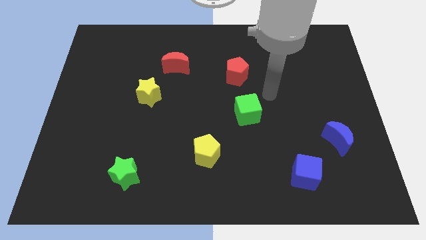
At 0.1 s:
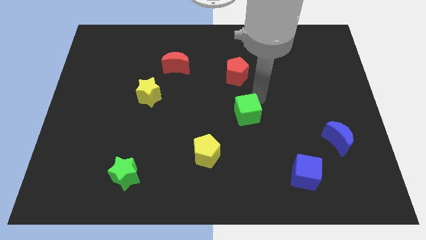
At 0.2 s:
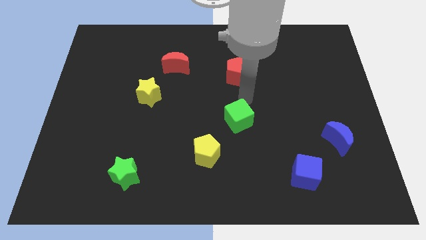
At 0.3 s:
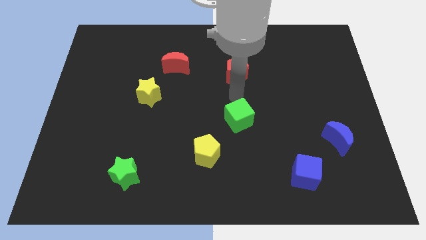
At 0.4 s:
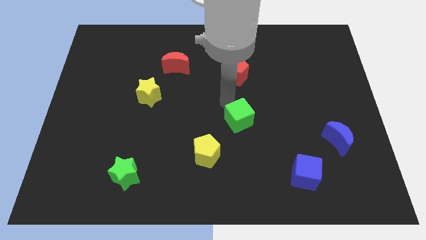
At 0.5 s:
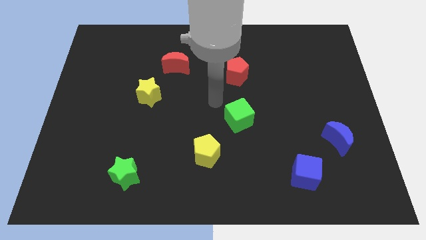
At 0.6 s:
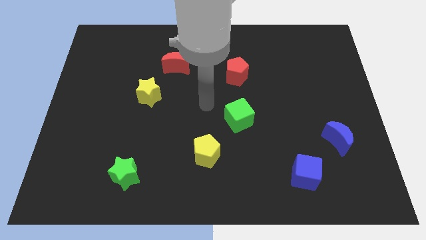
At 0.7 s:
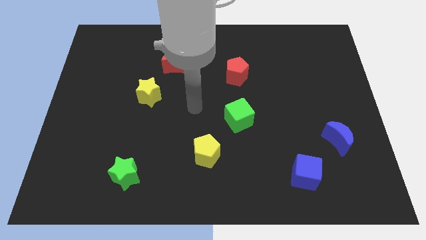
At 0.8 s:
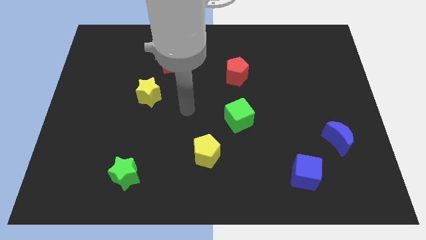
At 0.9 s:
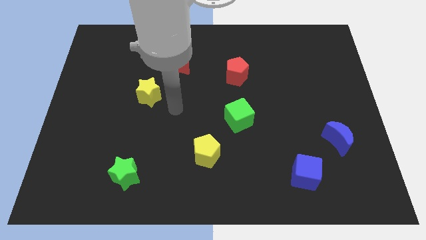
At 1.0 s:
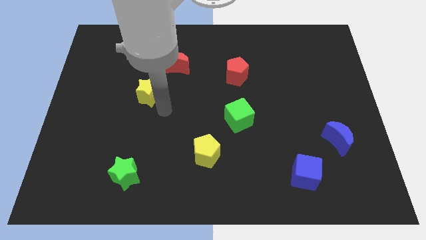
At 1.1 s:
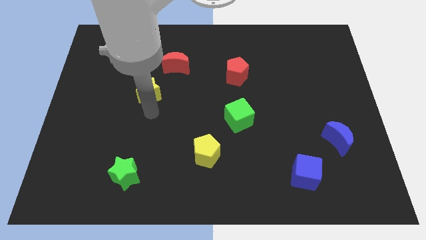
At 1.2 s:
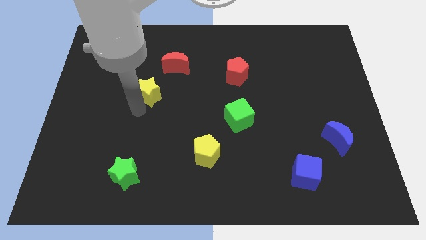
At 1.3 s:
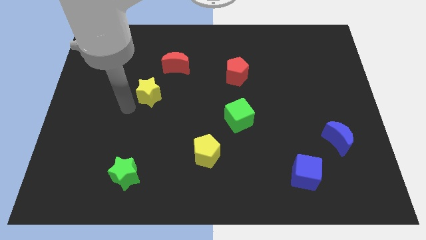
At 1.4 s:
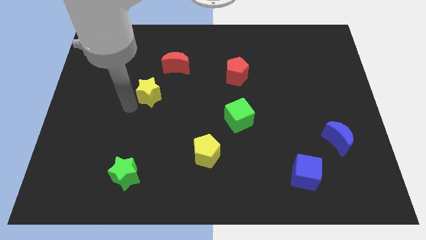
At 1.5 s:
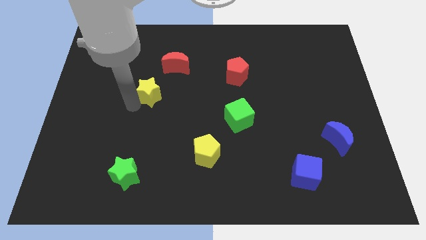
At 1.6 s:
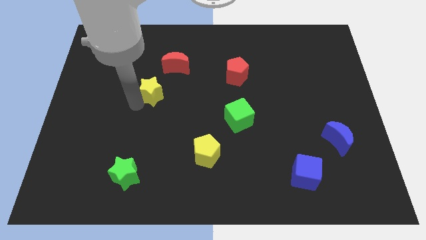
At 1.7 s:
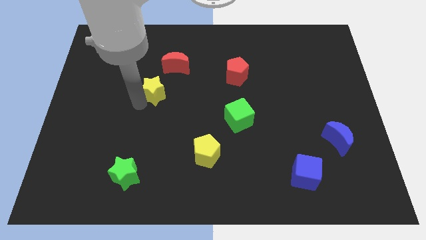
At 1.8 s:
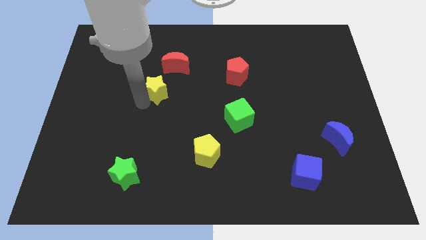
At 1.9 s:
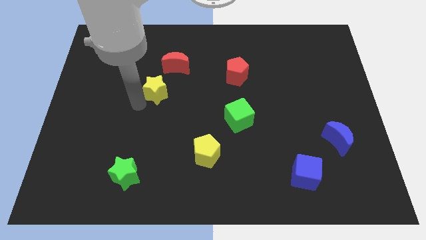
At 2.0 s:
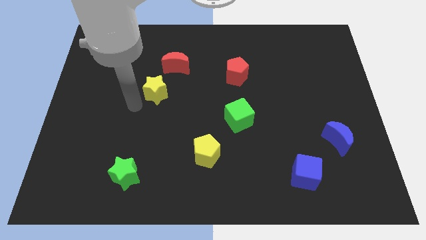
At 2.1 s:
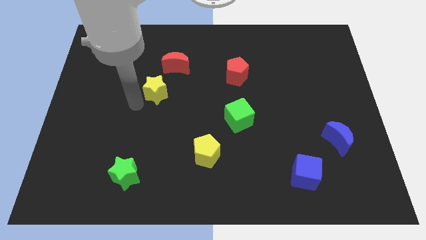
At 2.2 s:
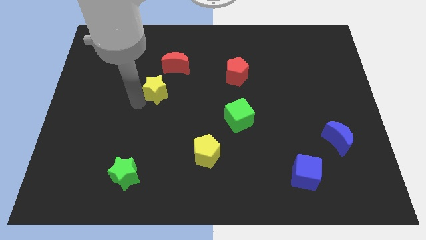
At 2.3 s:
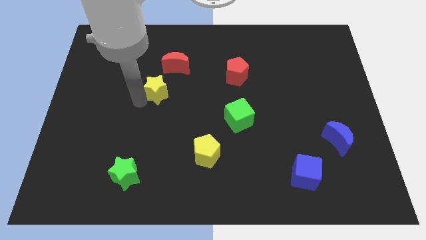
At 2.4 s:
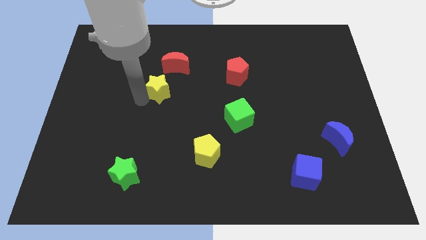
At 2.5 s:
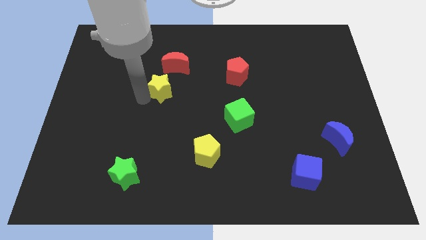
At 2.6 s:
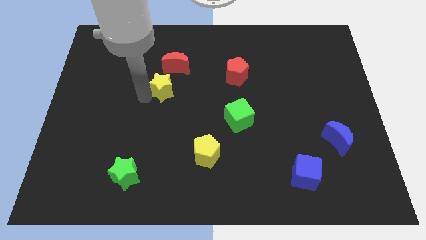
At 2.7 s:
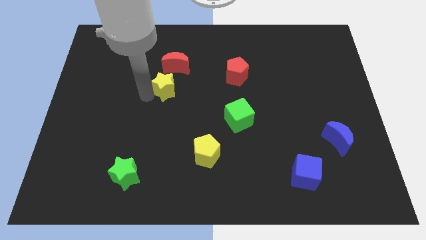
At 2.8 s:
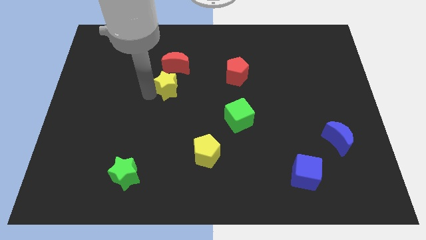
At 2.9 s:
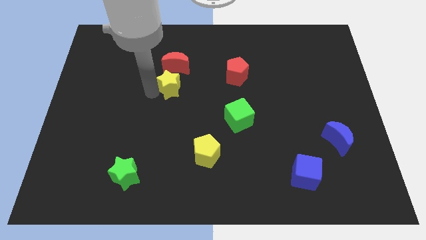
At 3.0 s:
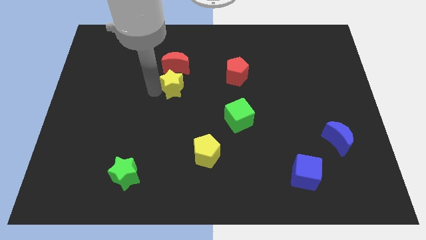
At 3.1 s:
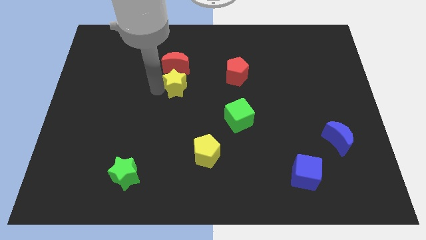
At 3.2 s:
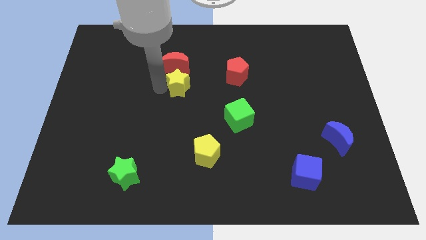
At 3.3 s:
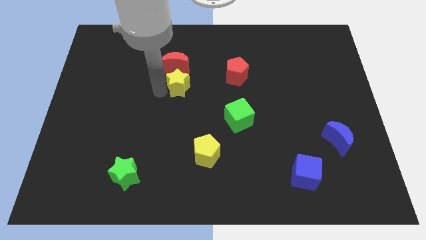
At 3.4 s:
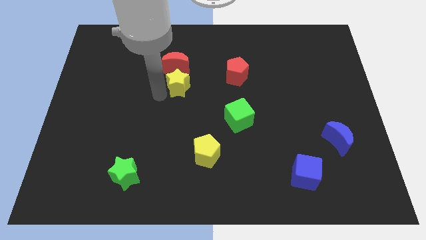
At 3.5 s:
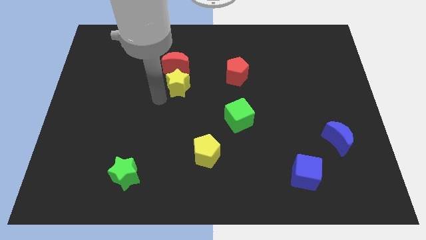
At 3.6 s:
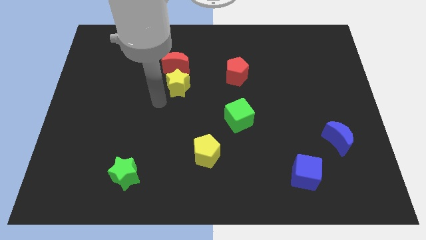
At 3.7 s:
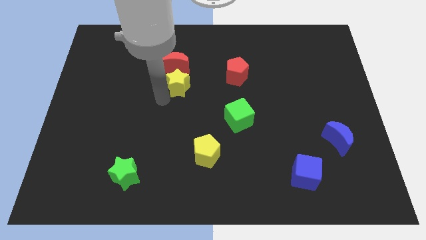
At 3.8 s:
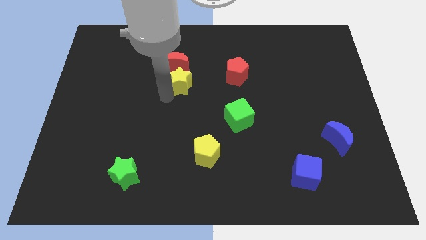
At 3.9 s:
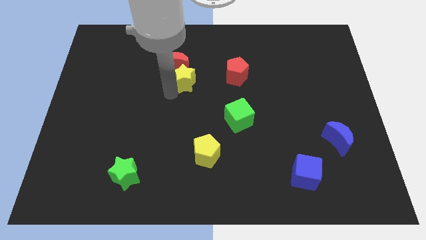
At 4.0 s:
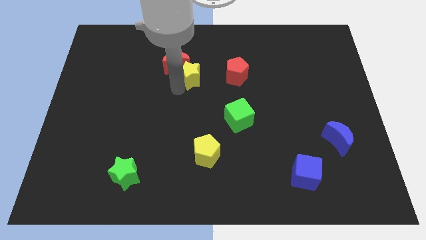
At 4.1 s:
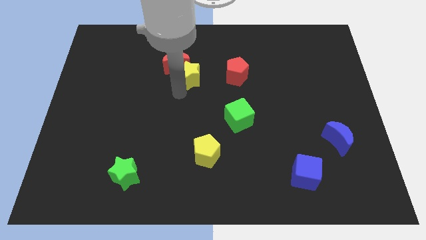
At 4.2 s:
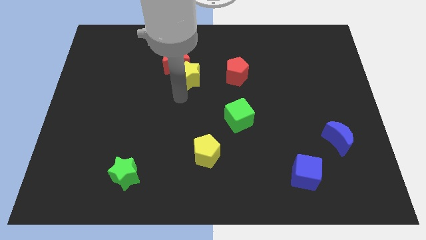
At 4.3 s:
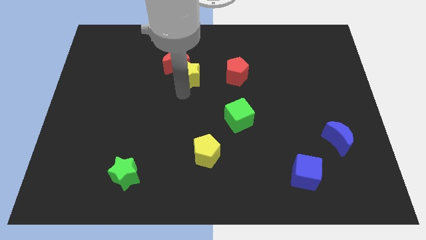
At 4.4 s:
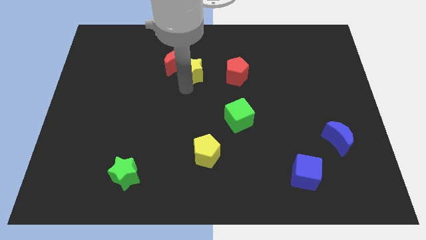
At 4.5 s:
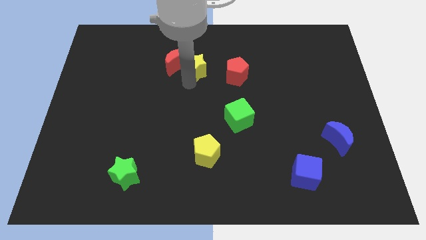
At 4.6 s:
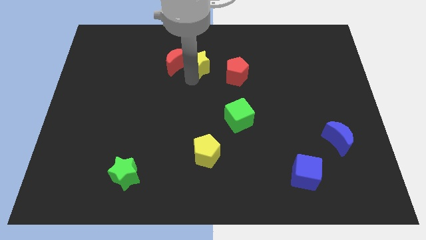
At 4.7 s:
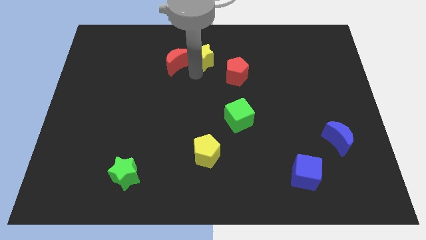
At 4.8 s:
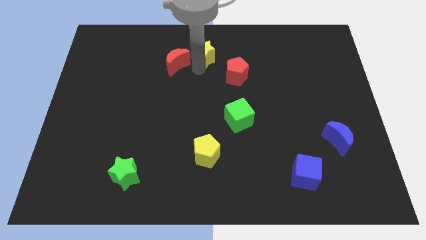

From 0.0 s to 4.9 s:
put the yellow star to the towards your base

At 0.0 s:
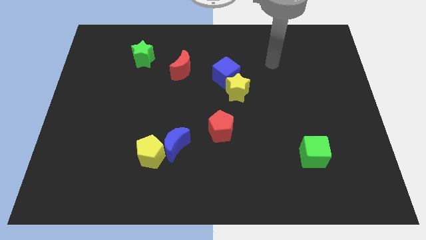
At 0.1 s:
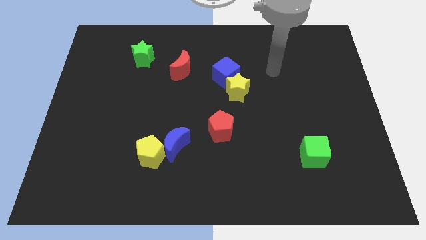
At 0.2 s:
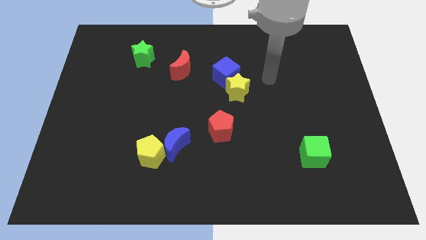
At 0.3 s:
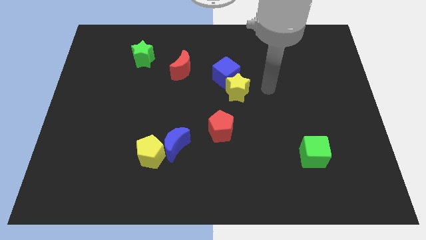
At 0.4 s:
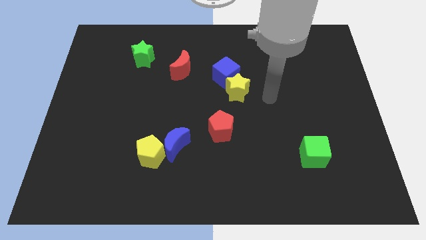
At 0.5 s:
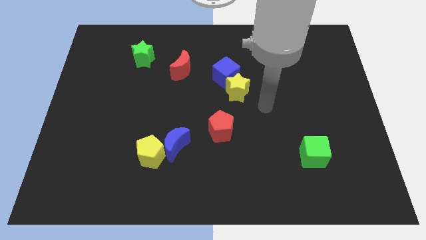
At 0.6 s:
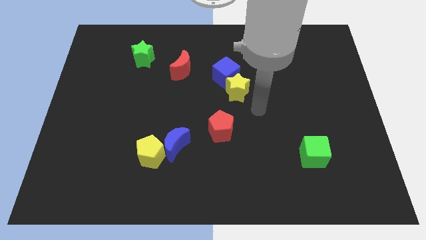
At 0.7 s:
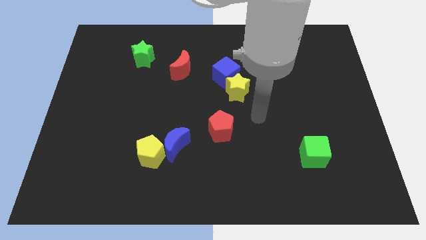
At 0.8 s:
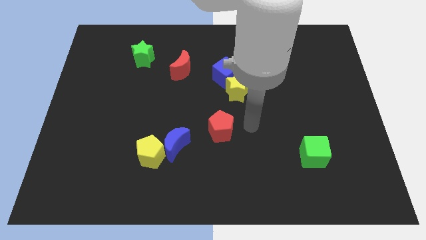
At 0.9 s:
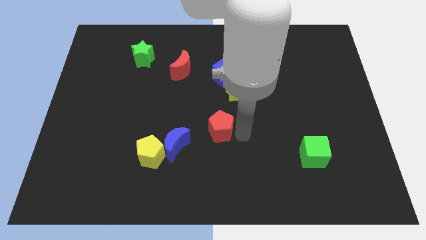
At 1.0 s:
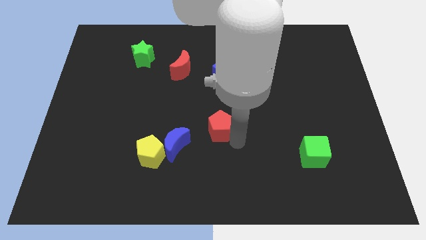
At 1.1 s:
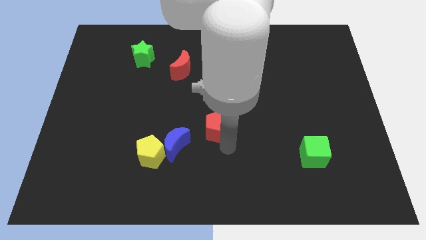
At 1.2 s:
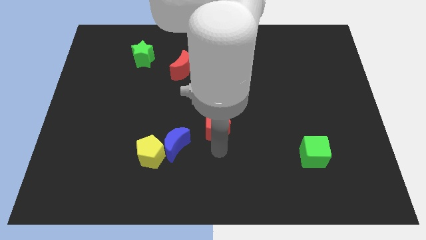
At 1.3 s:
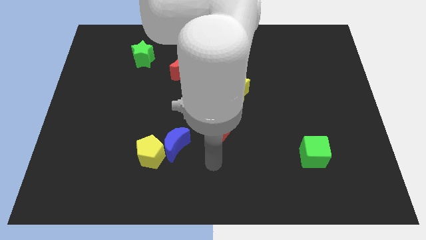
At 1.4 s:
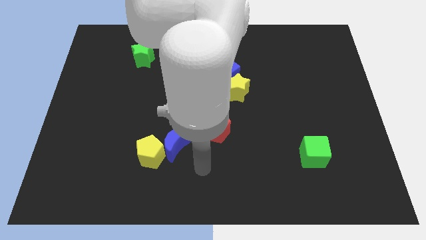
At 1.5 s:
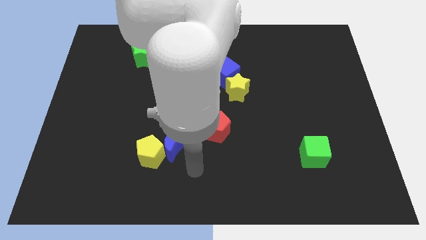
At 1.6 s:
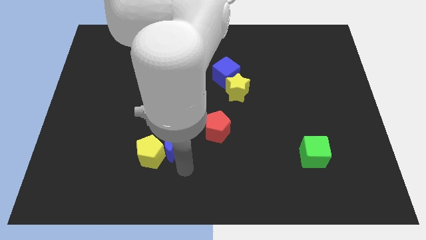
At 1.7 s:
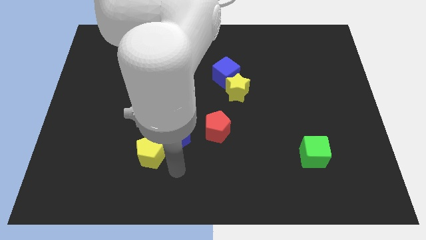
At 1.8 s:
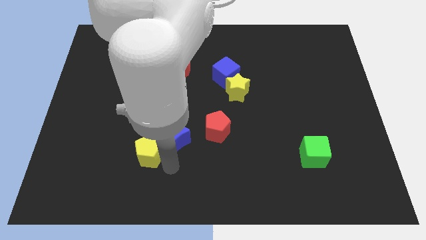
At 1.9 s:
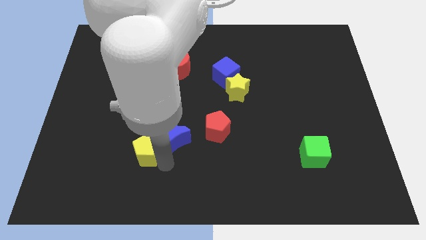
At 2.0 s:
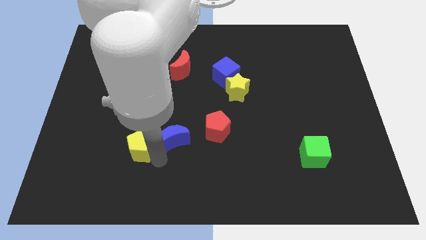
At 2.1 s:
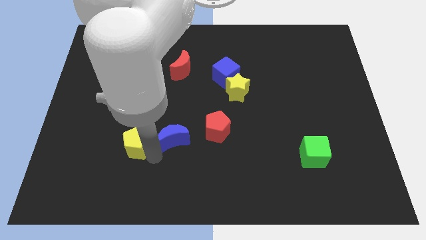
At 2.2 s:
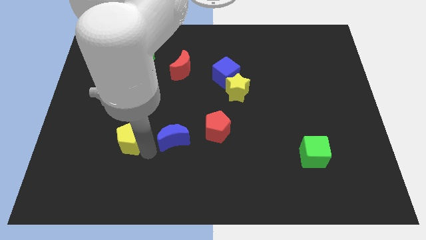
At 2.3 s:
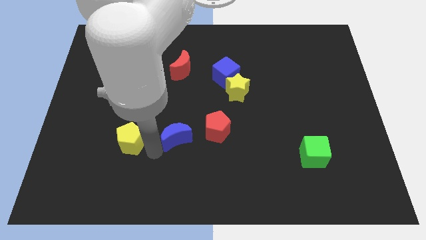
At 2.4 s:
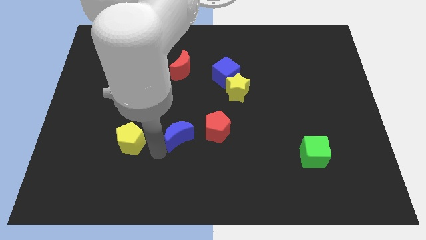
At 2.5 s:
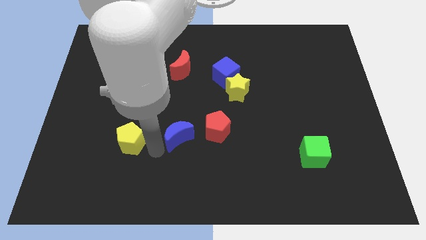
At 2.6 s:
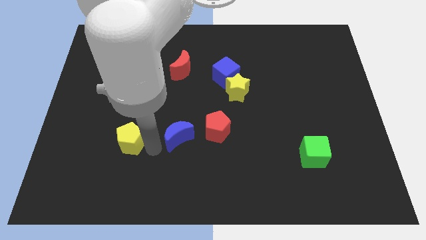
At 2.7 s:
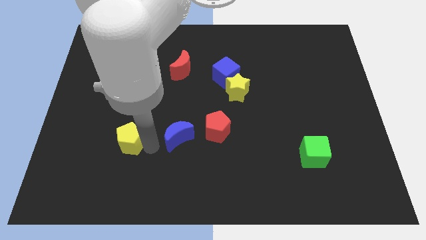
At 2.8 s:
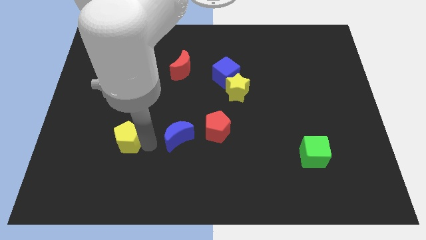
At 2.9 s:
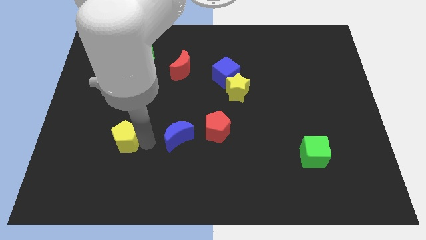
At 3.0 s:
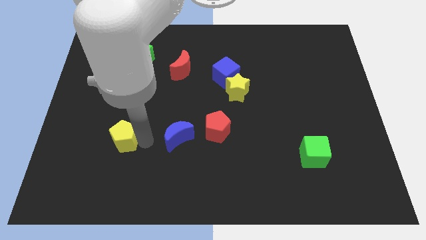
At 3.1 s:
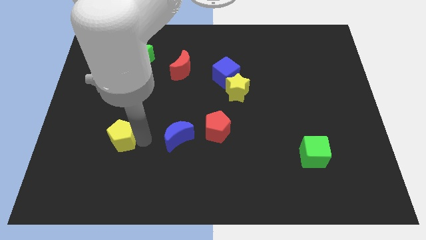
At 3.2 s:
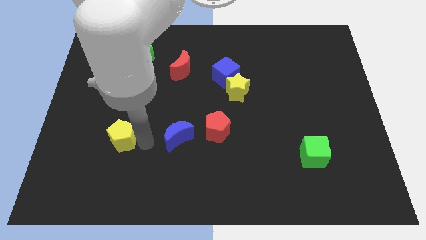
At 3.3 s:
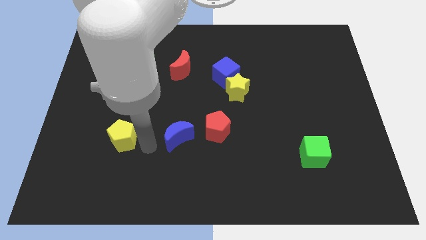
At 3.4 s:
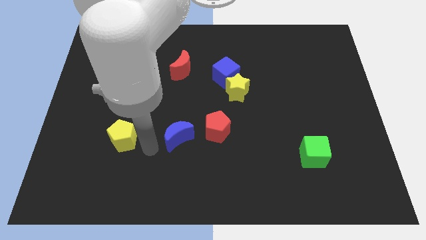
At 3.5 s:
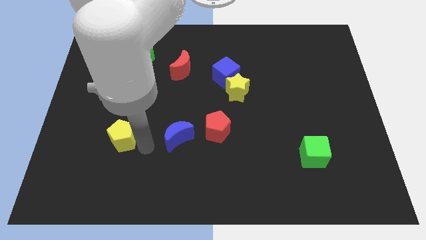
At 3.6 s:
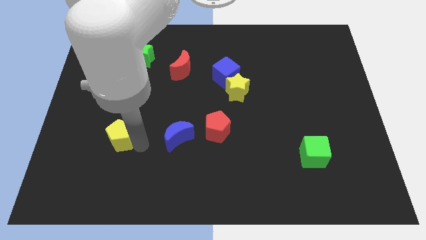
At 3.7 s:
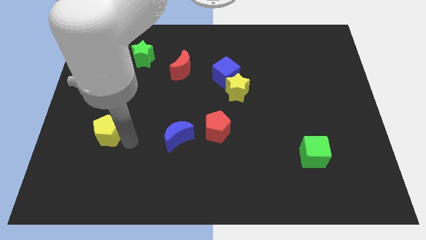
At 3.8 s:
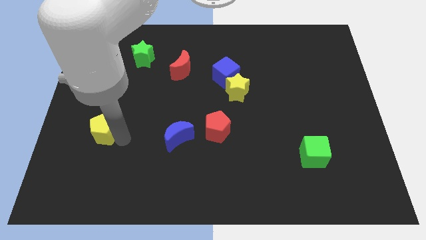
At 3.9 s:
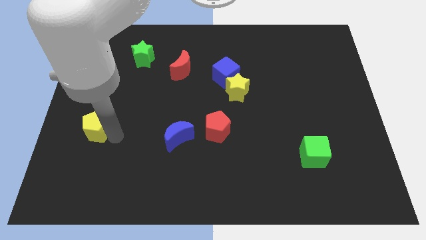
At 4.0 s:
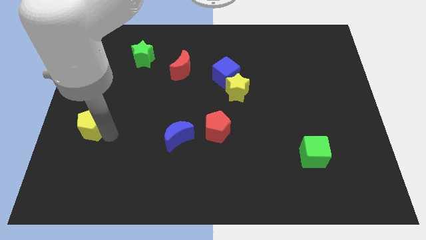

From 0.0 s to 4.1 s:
move the yellow pentagon to the left side of the board
